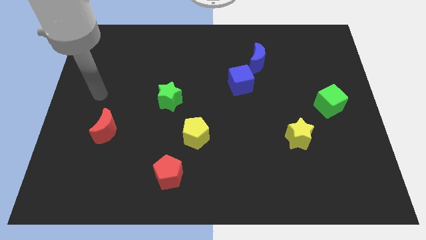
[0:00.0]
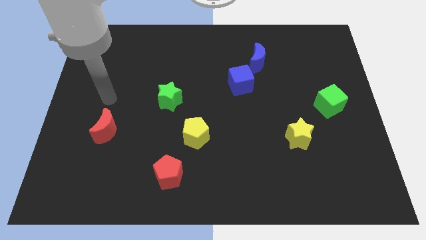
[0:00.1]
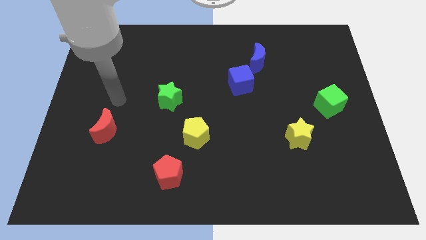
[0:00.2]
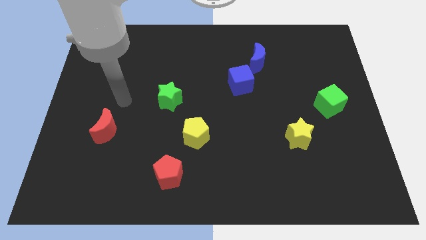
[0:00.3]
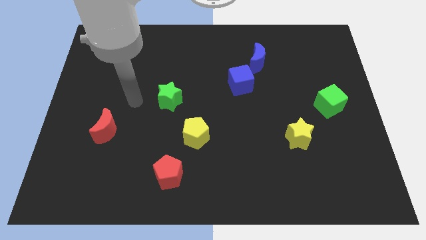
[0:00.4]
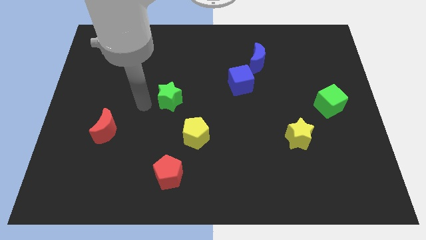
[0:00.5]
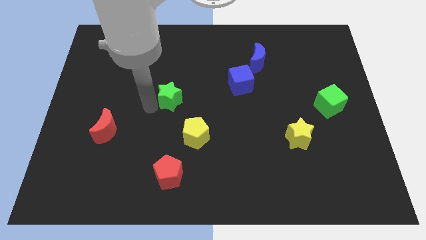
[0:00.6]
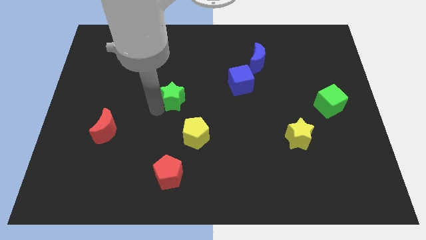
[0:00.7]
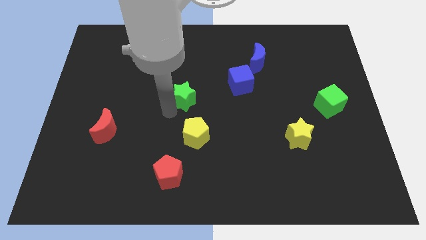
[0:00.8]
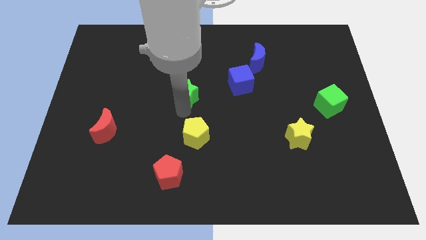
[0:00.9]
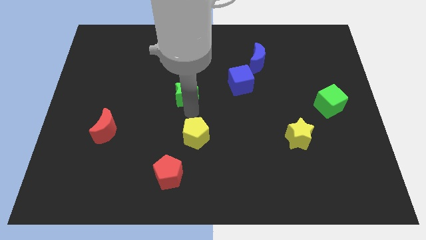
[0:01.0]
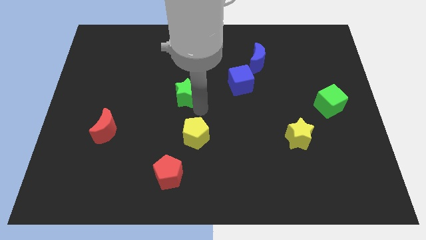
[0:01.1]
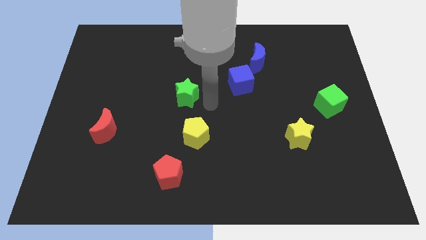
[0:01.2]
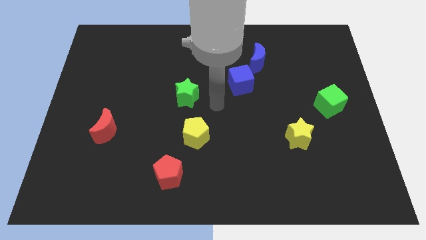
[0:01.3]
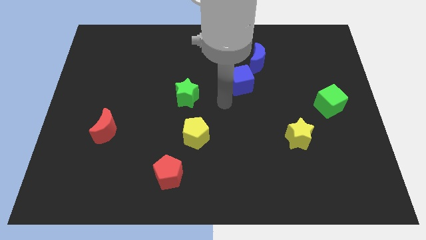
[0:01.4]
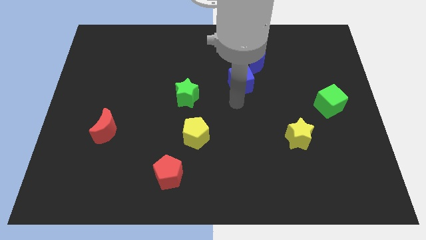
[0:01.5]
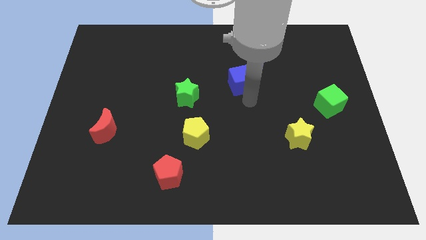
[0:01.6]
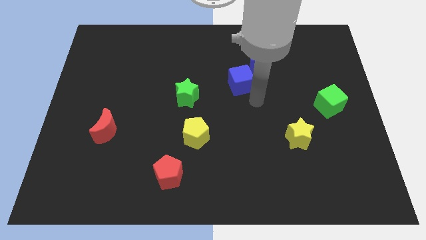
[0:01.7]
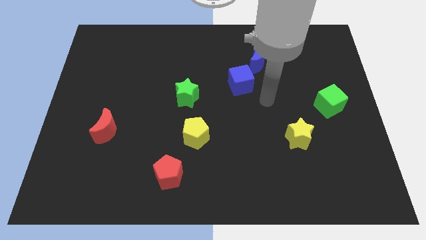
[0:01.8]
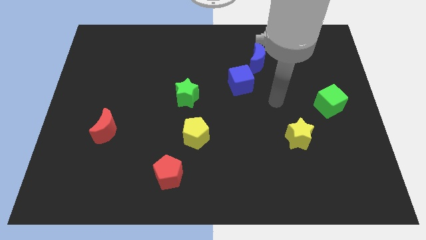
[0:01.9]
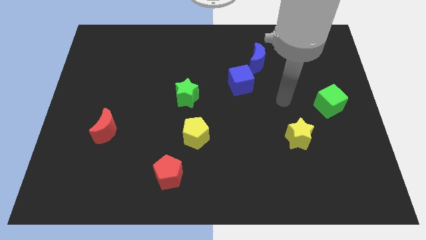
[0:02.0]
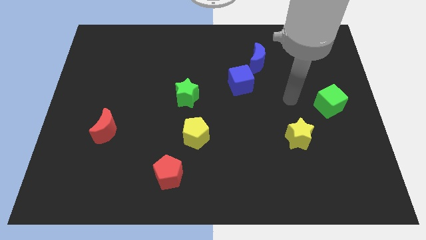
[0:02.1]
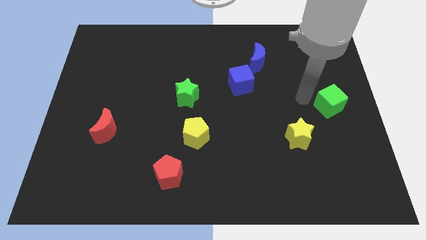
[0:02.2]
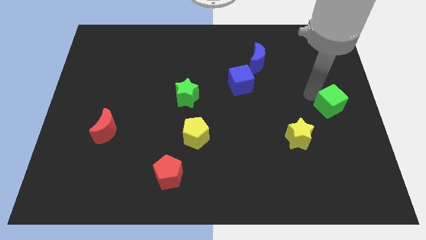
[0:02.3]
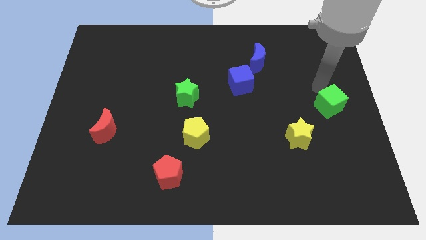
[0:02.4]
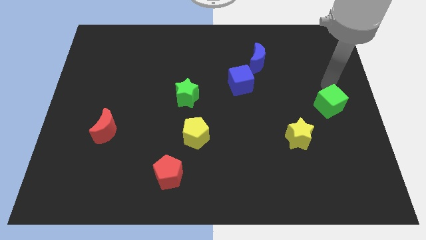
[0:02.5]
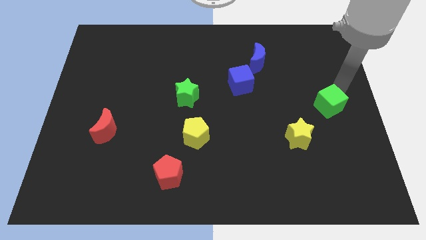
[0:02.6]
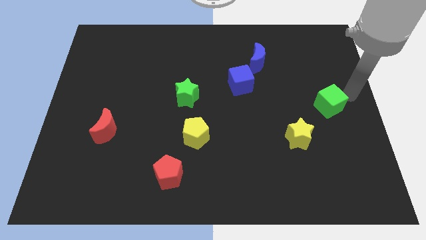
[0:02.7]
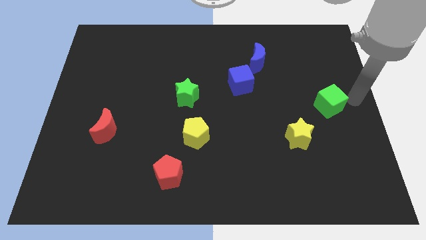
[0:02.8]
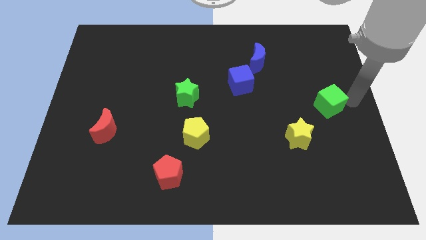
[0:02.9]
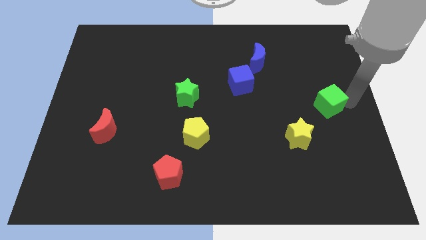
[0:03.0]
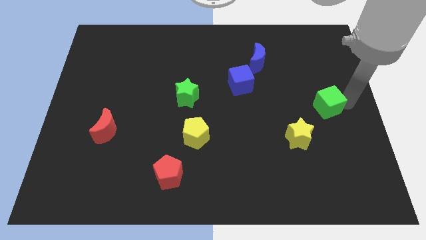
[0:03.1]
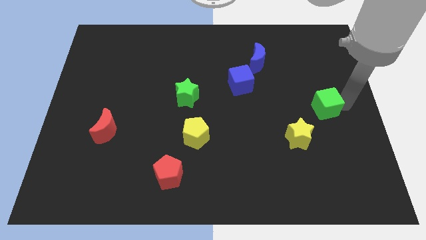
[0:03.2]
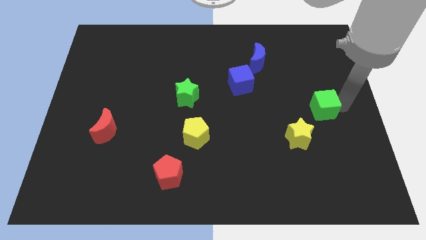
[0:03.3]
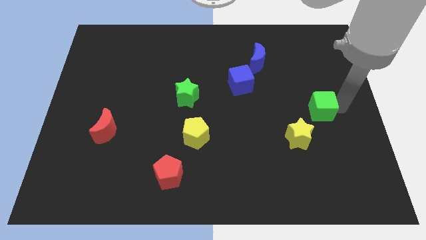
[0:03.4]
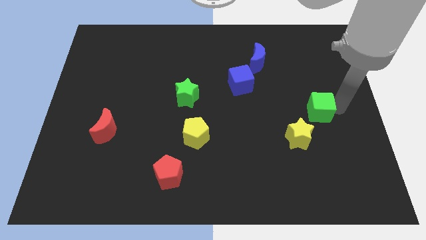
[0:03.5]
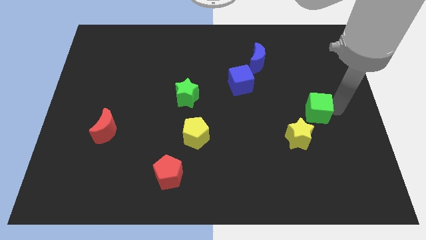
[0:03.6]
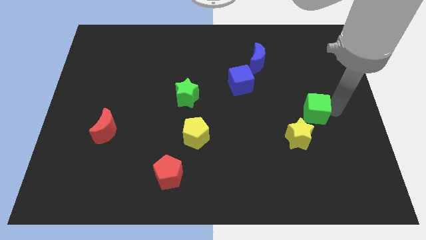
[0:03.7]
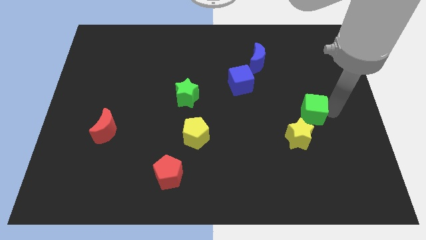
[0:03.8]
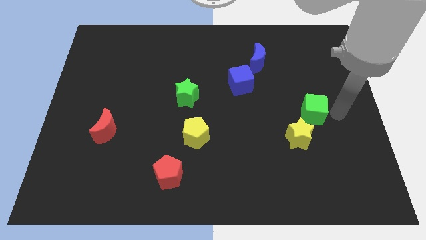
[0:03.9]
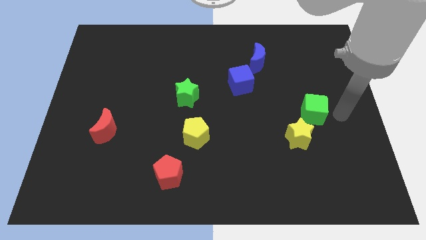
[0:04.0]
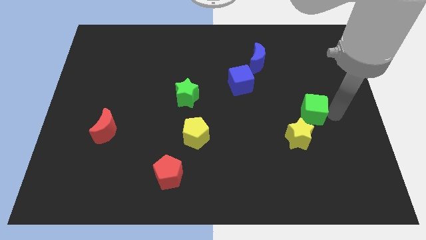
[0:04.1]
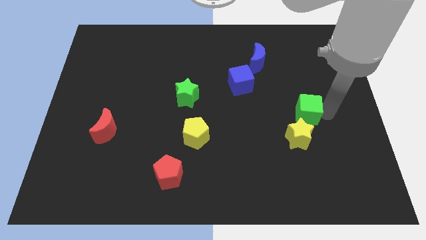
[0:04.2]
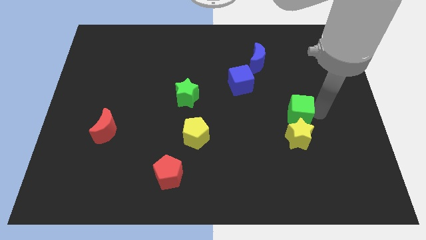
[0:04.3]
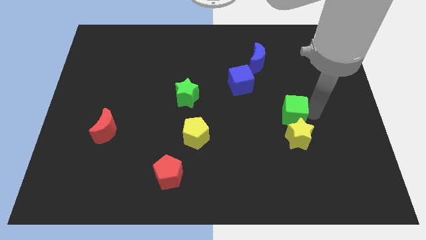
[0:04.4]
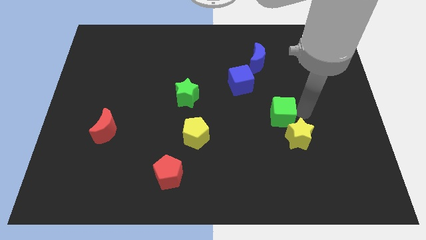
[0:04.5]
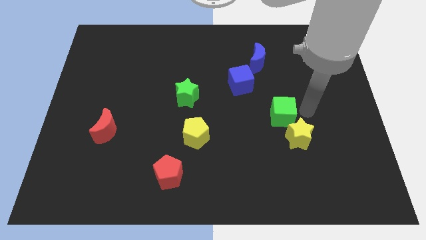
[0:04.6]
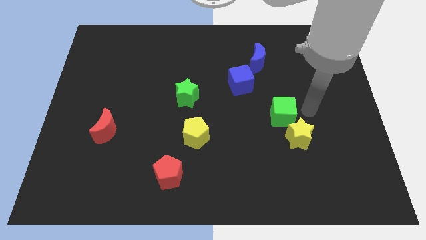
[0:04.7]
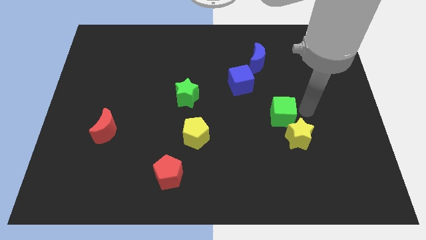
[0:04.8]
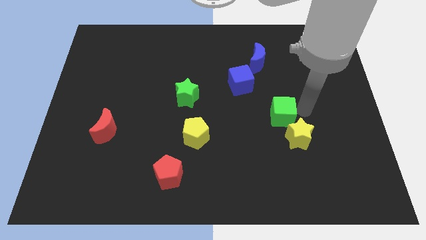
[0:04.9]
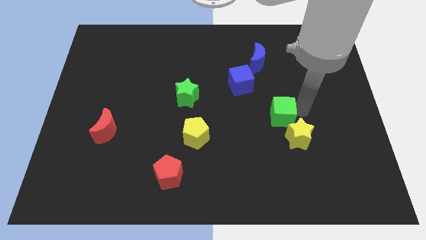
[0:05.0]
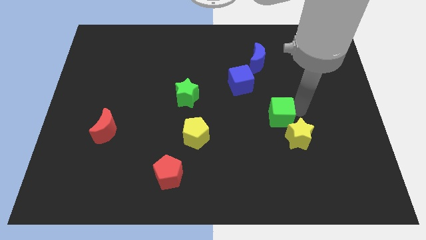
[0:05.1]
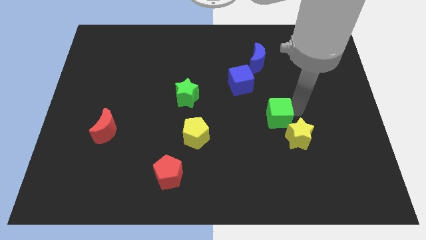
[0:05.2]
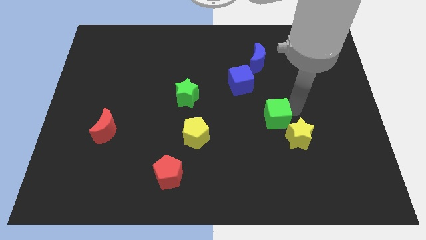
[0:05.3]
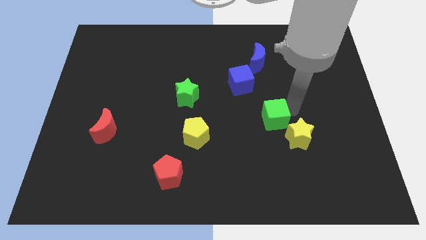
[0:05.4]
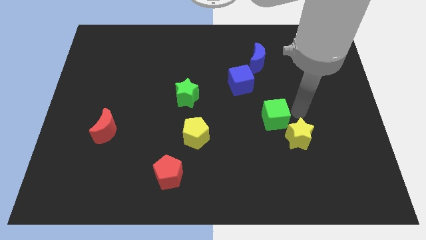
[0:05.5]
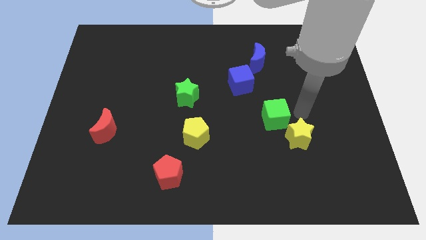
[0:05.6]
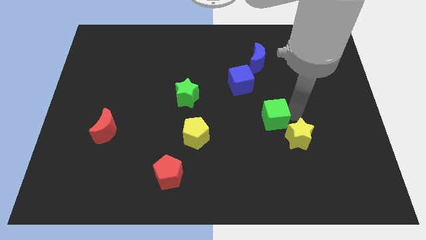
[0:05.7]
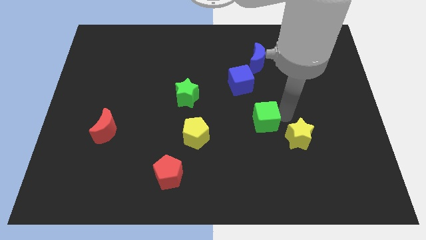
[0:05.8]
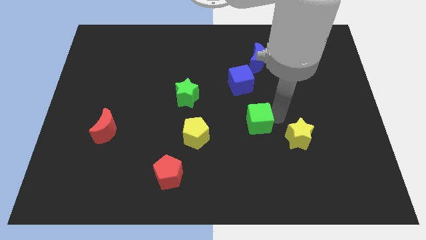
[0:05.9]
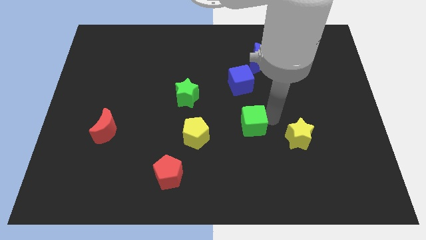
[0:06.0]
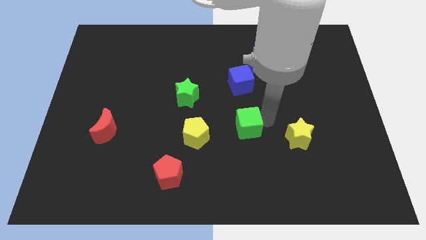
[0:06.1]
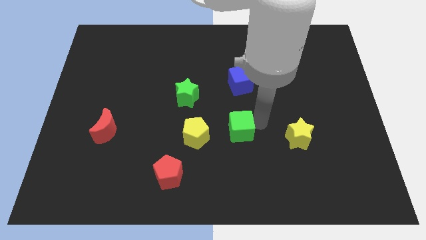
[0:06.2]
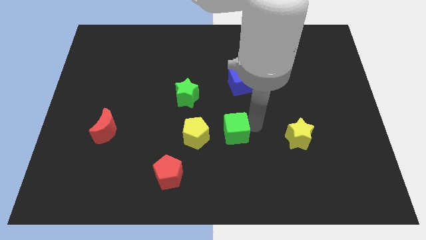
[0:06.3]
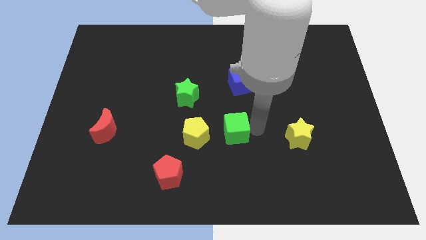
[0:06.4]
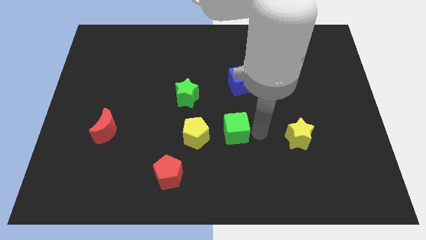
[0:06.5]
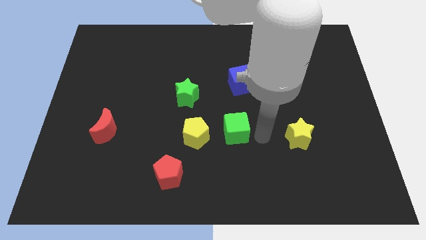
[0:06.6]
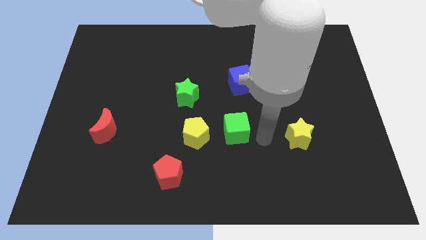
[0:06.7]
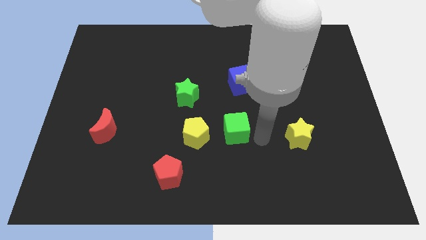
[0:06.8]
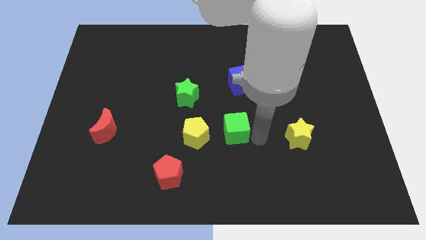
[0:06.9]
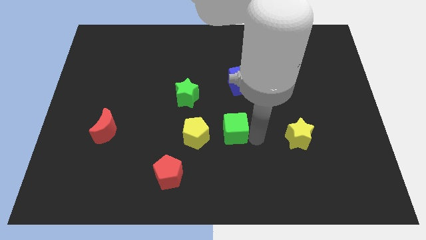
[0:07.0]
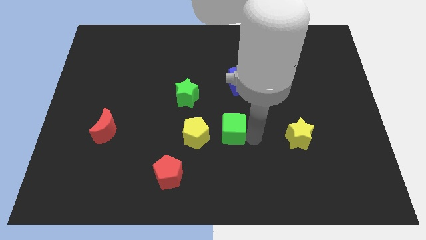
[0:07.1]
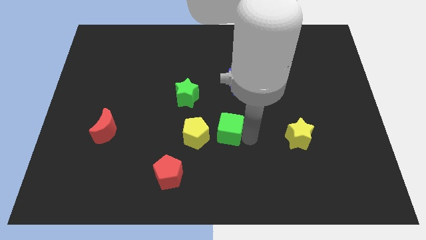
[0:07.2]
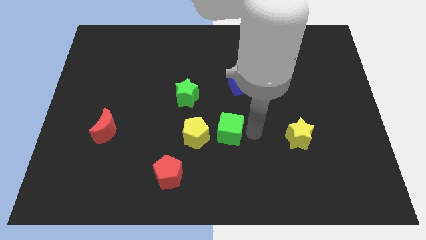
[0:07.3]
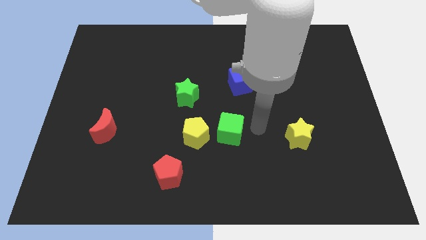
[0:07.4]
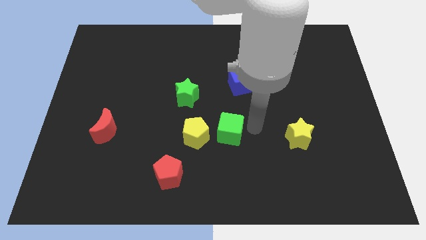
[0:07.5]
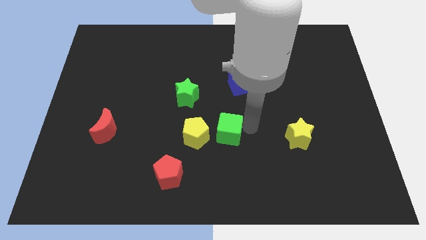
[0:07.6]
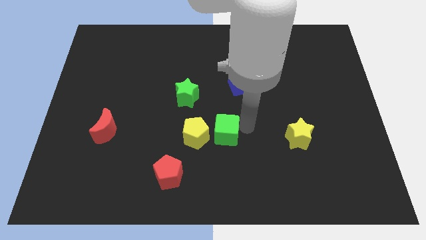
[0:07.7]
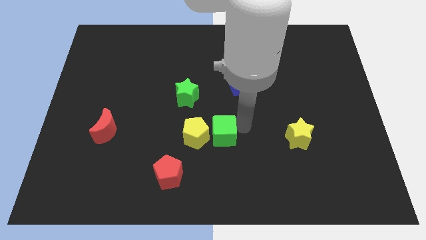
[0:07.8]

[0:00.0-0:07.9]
put the green cube towards the yellow pentagon
